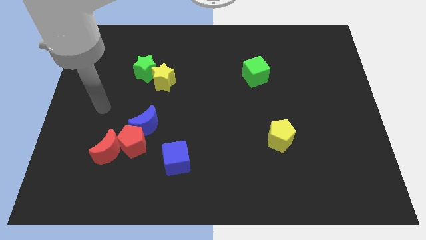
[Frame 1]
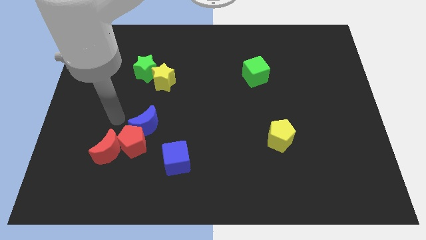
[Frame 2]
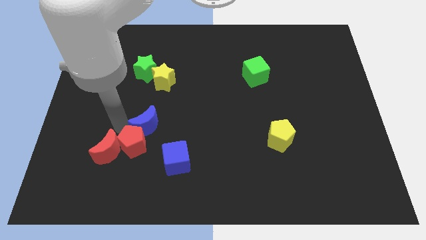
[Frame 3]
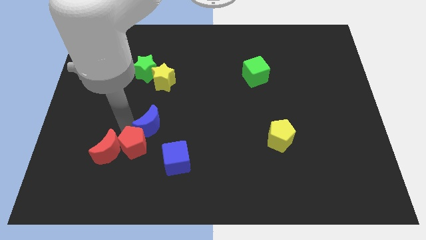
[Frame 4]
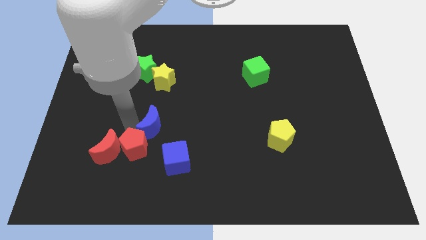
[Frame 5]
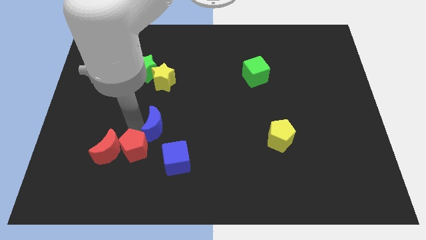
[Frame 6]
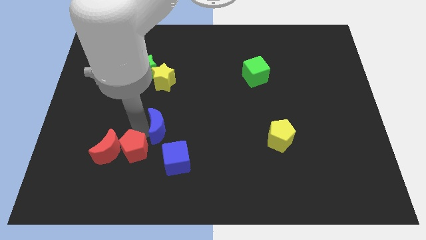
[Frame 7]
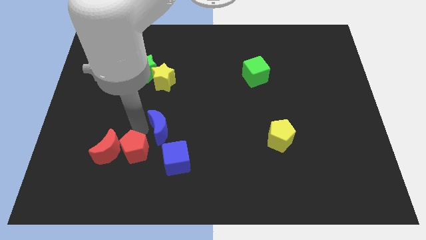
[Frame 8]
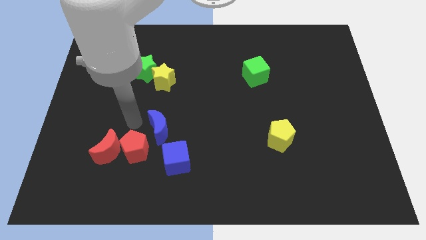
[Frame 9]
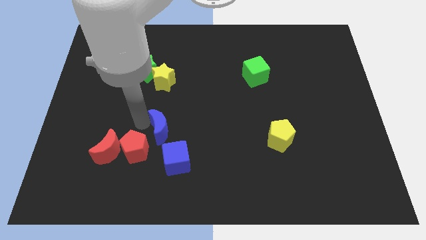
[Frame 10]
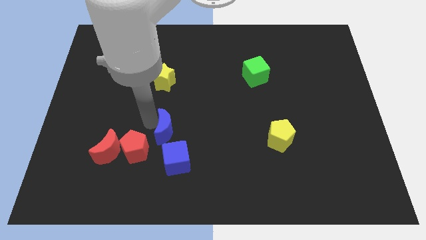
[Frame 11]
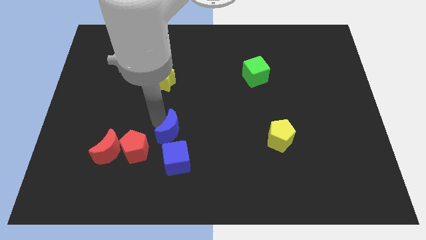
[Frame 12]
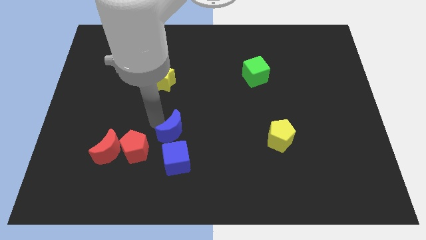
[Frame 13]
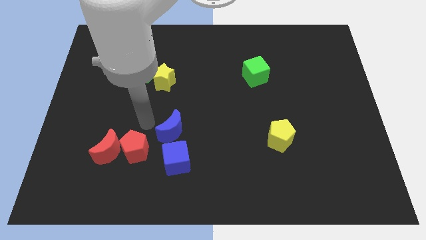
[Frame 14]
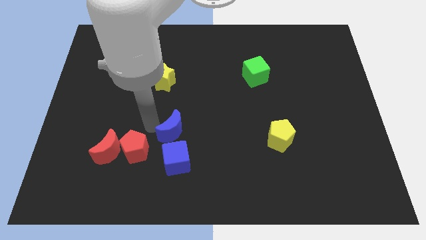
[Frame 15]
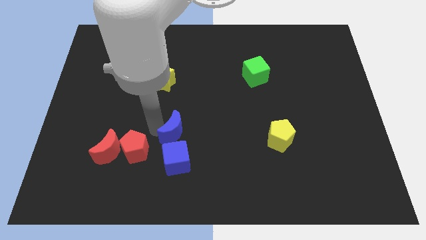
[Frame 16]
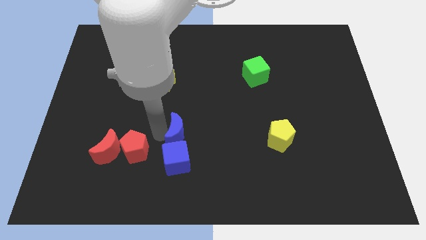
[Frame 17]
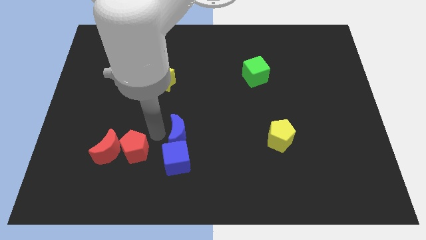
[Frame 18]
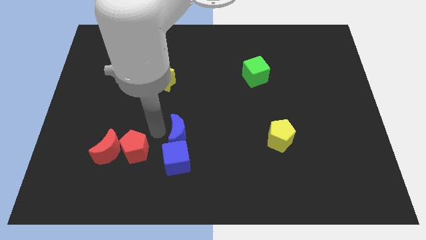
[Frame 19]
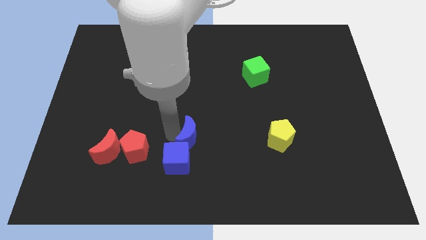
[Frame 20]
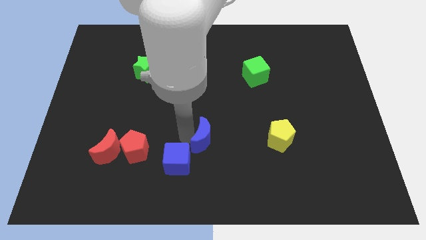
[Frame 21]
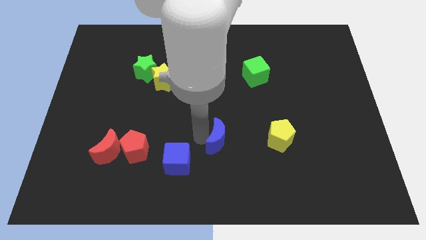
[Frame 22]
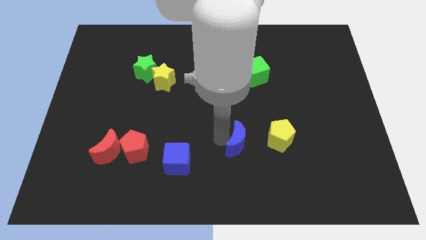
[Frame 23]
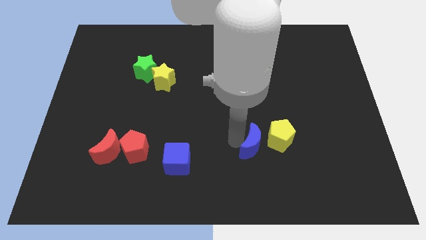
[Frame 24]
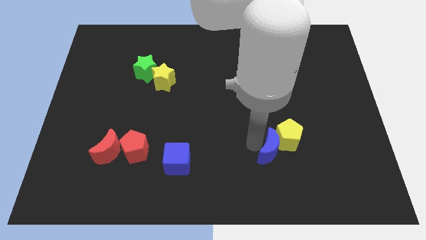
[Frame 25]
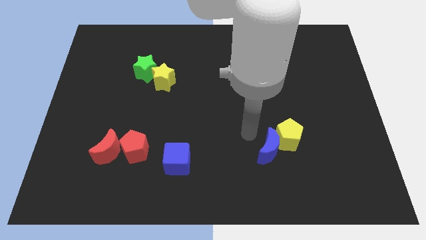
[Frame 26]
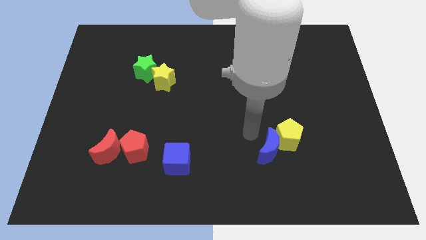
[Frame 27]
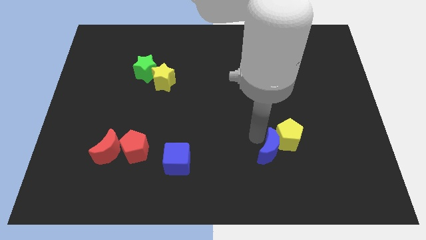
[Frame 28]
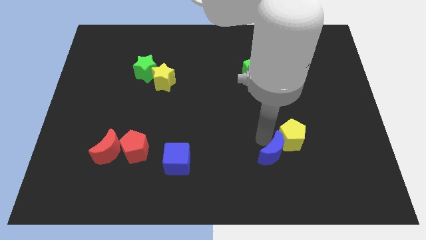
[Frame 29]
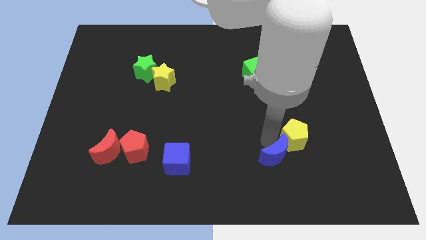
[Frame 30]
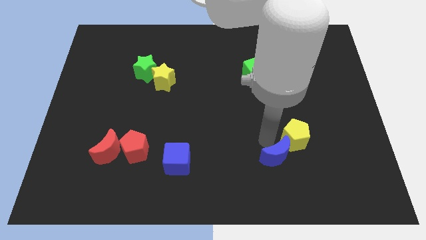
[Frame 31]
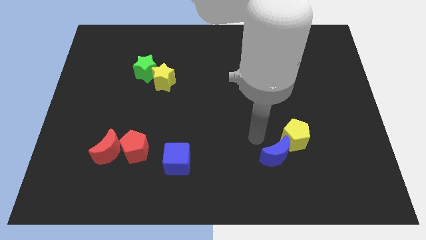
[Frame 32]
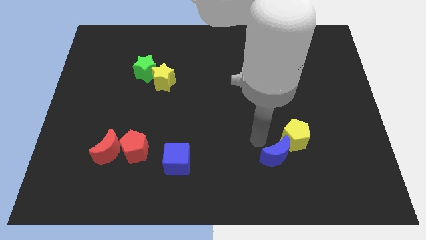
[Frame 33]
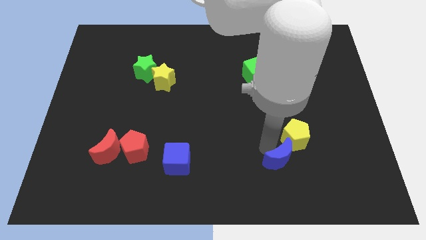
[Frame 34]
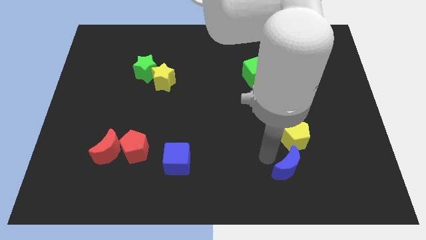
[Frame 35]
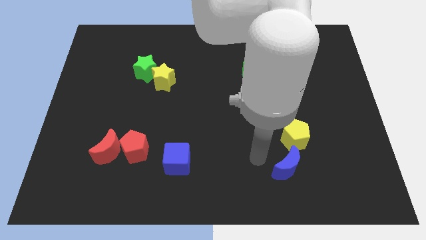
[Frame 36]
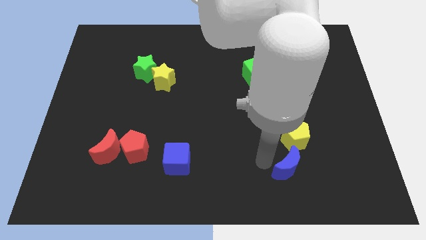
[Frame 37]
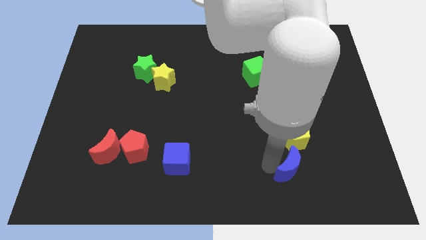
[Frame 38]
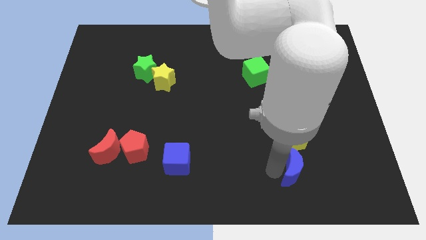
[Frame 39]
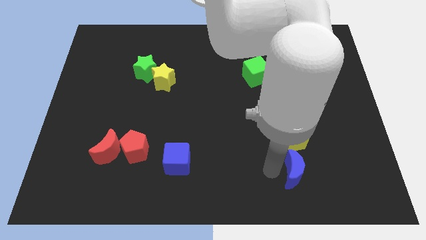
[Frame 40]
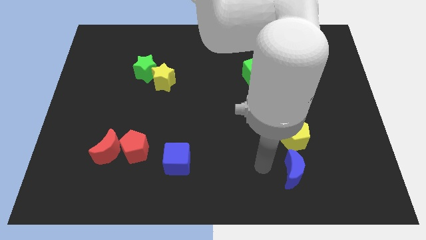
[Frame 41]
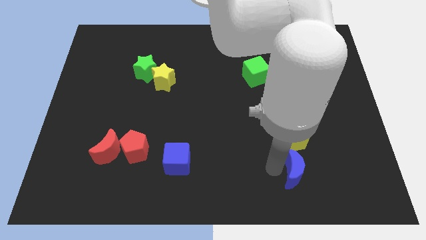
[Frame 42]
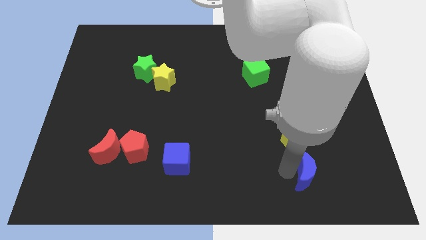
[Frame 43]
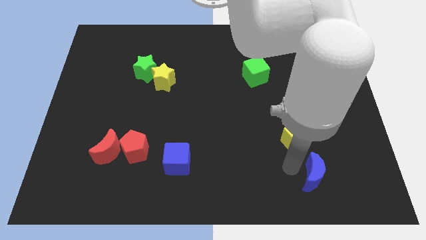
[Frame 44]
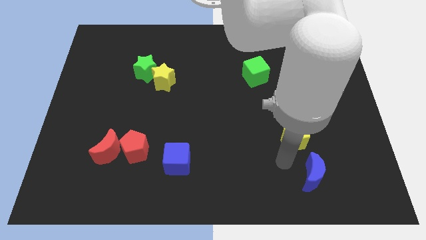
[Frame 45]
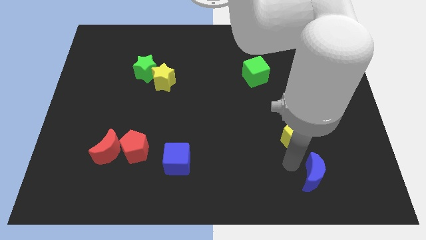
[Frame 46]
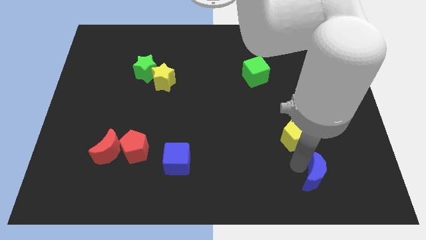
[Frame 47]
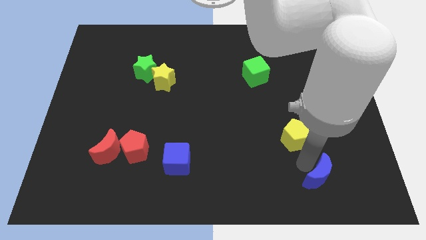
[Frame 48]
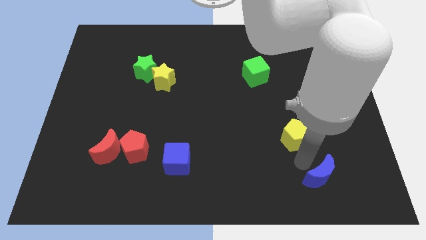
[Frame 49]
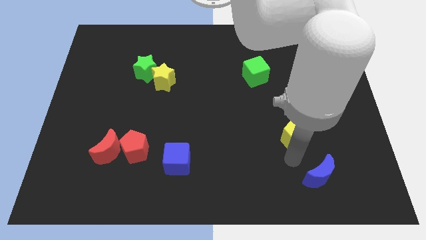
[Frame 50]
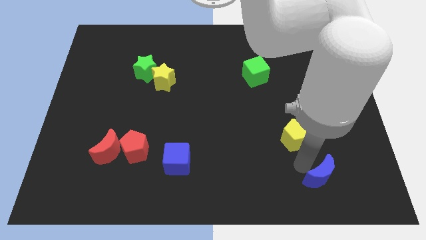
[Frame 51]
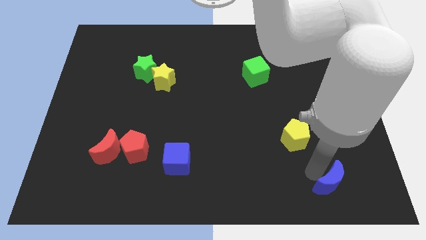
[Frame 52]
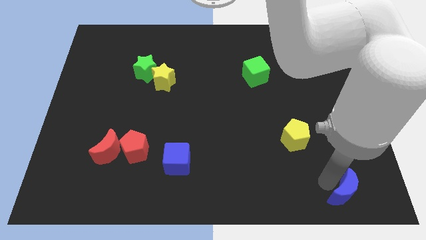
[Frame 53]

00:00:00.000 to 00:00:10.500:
put the blue moon to the bottom right of the board
